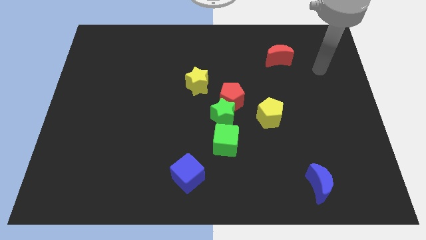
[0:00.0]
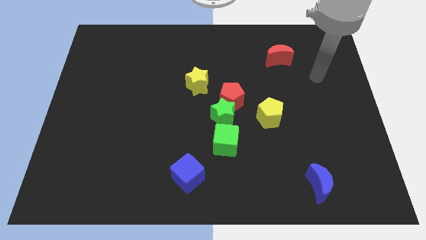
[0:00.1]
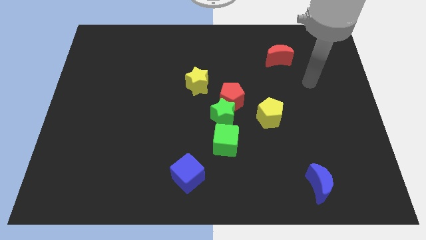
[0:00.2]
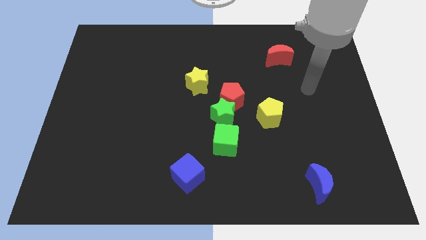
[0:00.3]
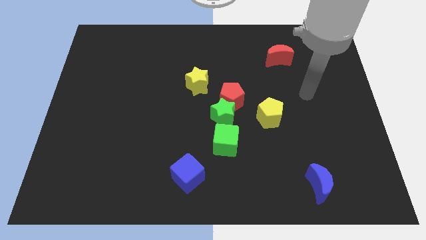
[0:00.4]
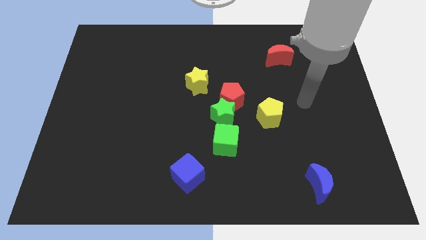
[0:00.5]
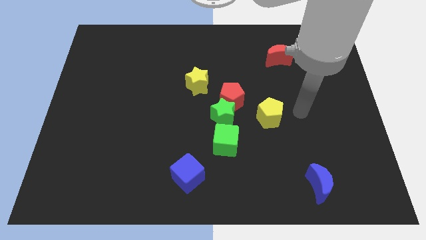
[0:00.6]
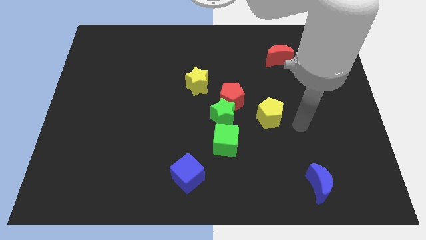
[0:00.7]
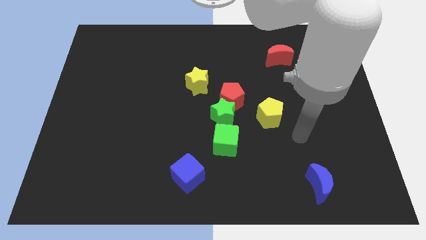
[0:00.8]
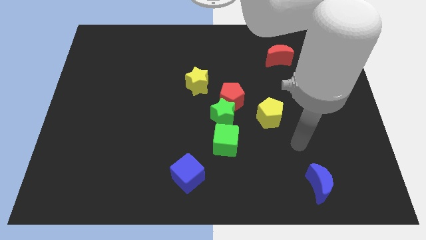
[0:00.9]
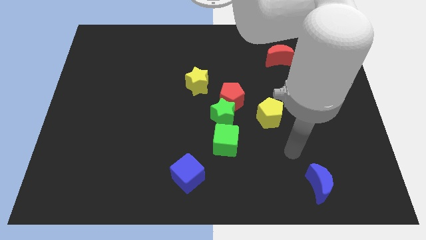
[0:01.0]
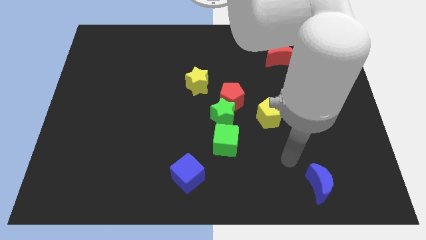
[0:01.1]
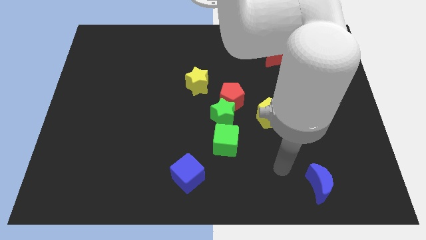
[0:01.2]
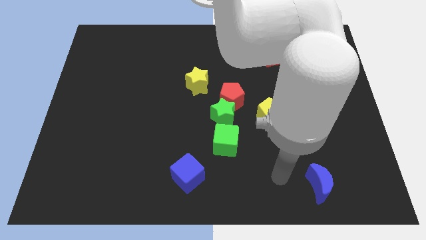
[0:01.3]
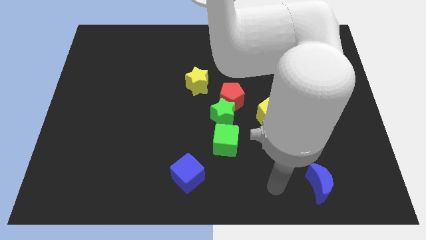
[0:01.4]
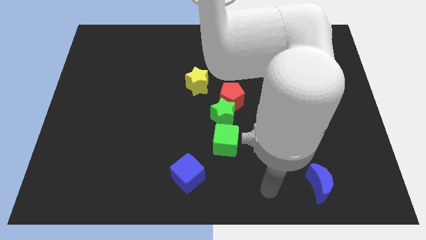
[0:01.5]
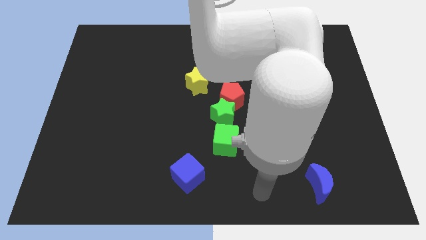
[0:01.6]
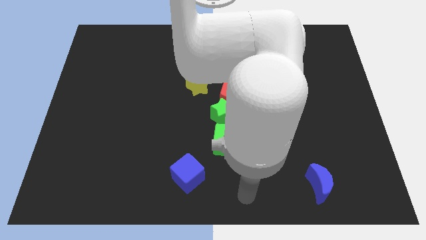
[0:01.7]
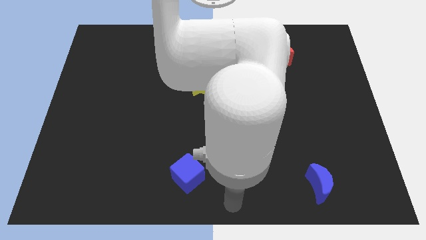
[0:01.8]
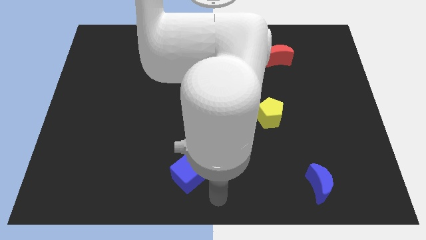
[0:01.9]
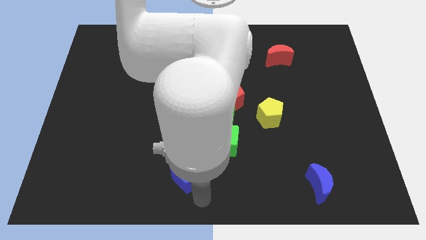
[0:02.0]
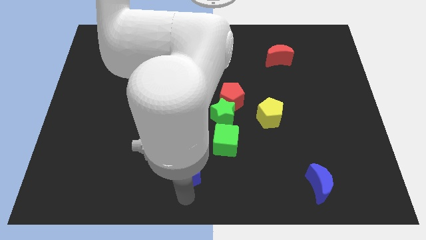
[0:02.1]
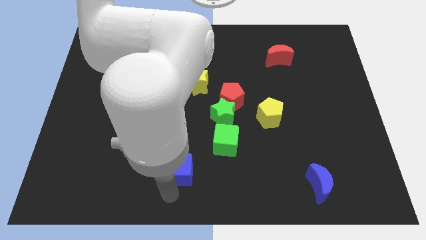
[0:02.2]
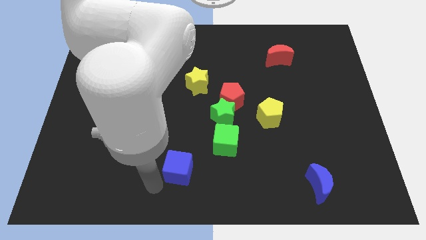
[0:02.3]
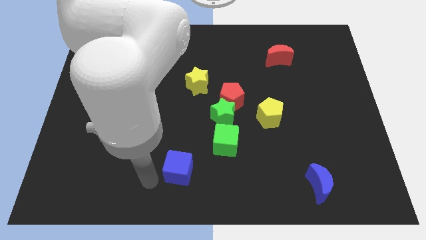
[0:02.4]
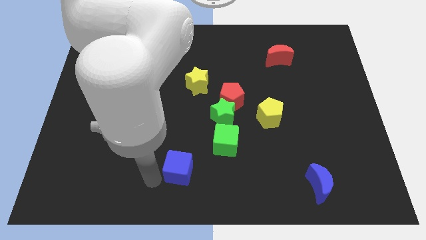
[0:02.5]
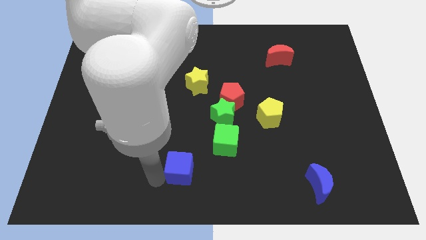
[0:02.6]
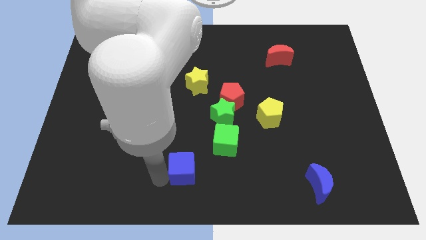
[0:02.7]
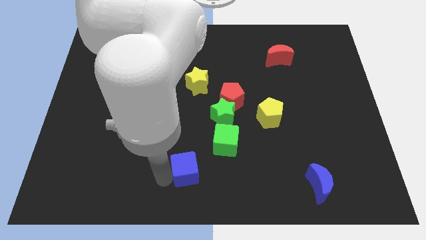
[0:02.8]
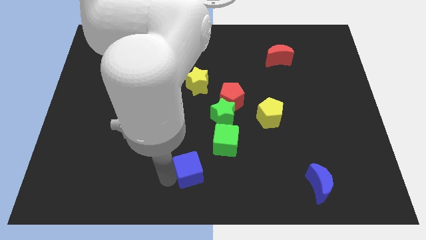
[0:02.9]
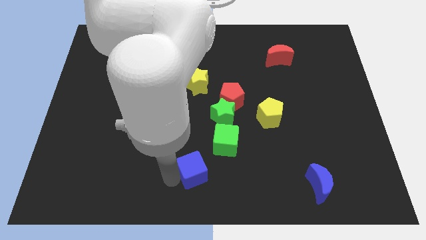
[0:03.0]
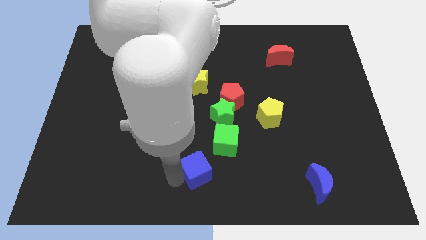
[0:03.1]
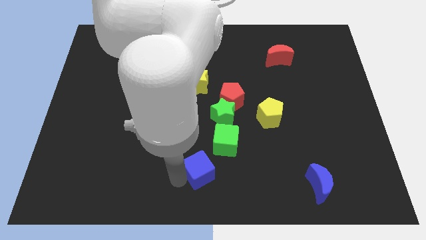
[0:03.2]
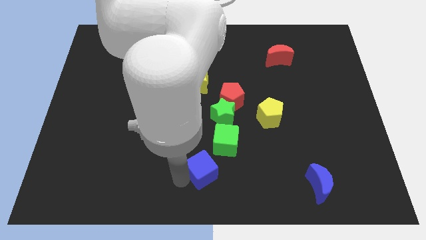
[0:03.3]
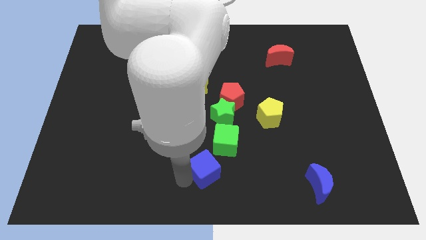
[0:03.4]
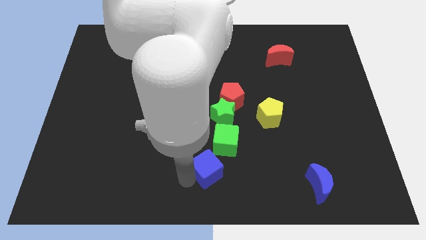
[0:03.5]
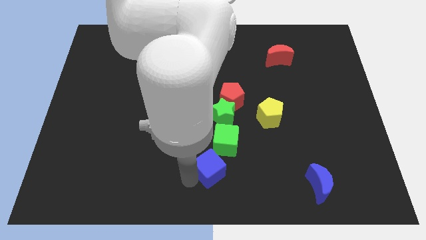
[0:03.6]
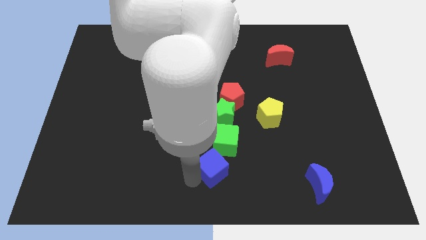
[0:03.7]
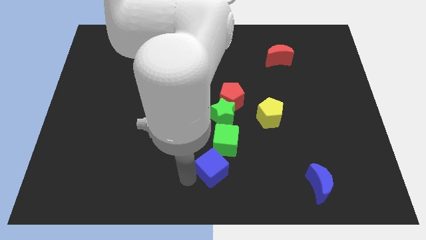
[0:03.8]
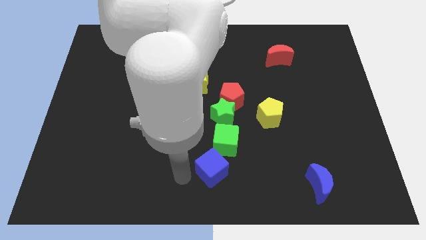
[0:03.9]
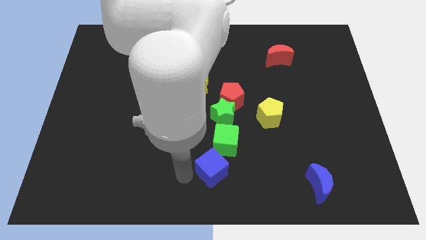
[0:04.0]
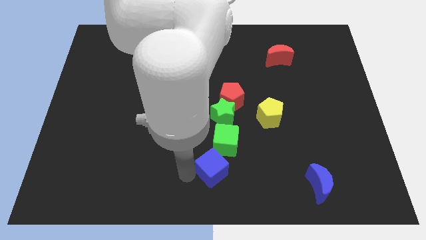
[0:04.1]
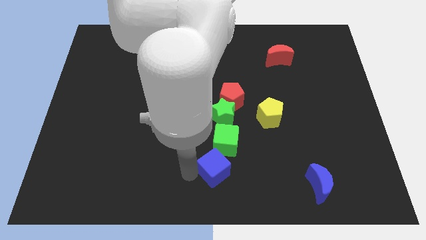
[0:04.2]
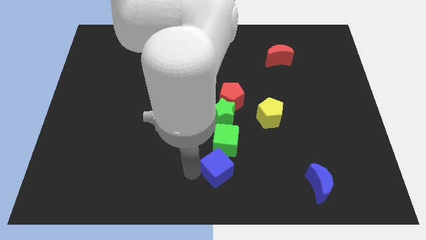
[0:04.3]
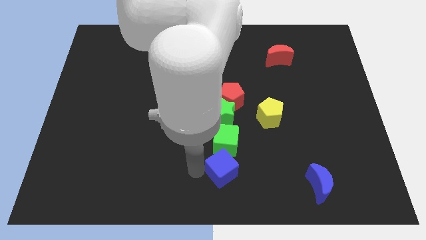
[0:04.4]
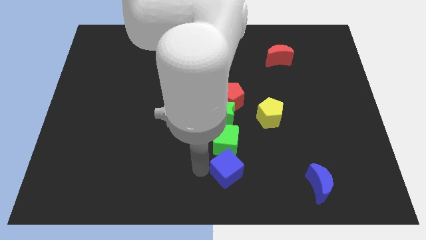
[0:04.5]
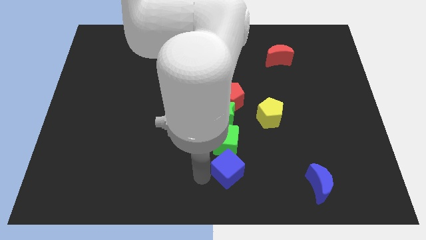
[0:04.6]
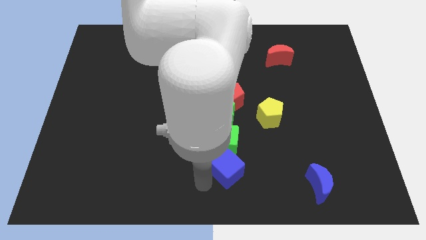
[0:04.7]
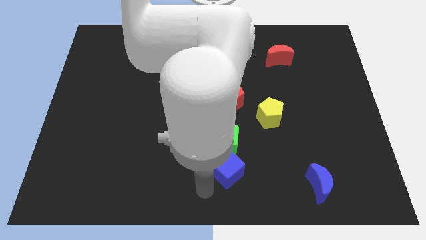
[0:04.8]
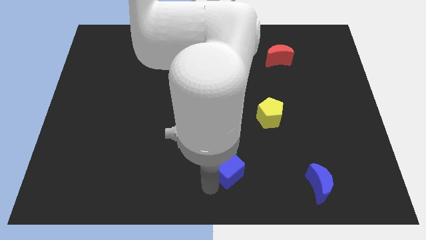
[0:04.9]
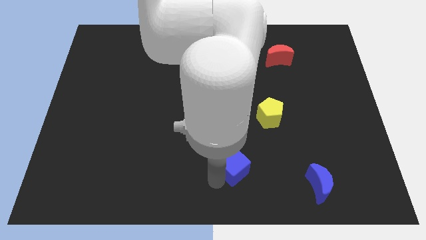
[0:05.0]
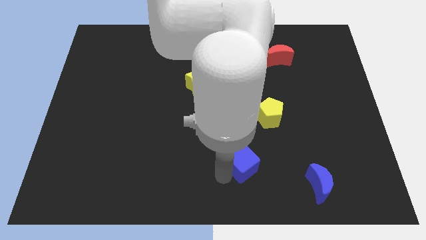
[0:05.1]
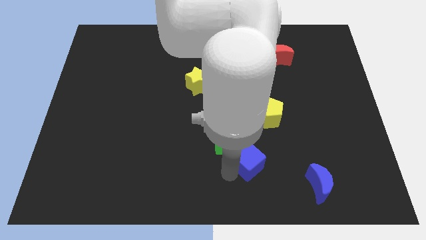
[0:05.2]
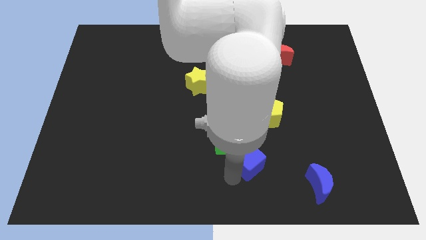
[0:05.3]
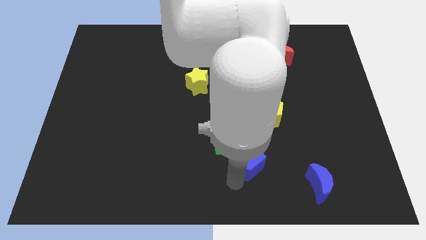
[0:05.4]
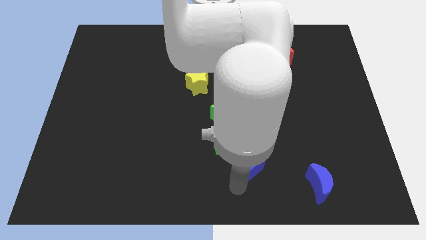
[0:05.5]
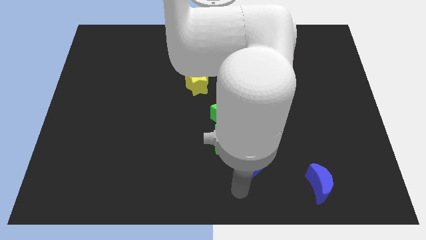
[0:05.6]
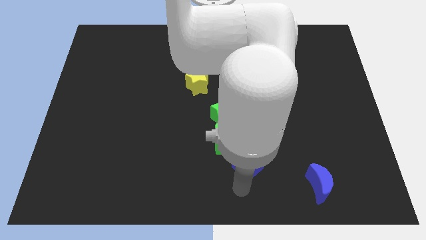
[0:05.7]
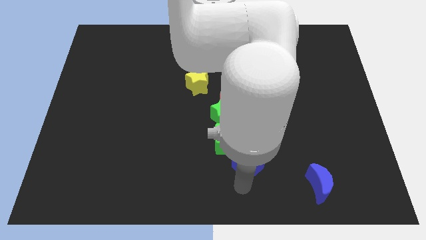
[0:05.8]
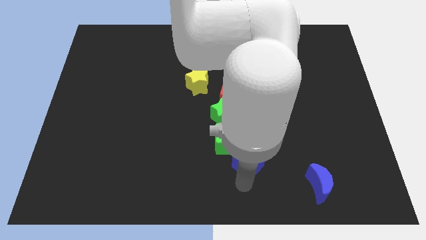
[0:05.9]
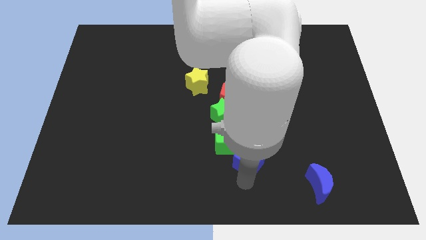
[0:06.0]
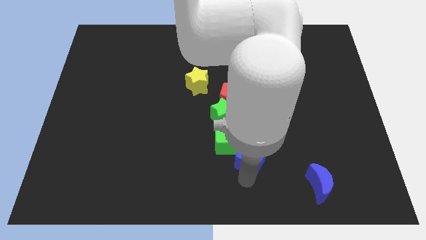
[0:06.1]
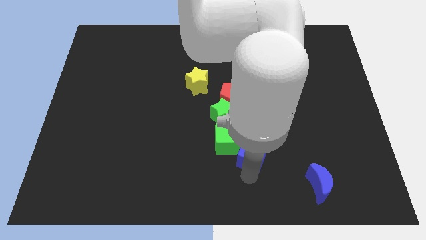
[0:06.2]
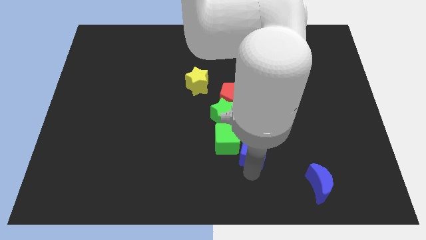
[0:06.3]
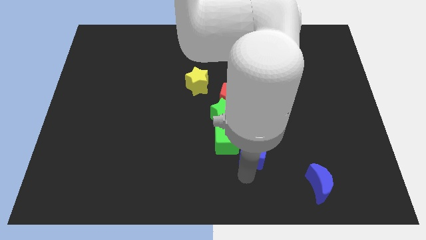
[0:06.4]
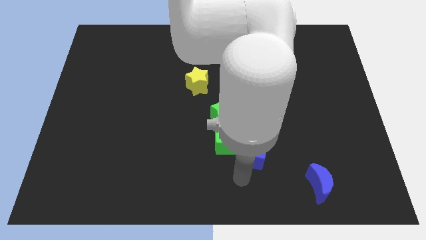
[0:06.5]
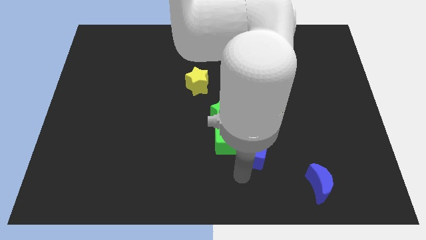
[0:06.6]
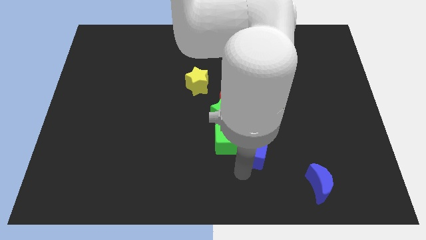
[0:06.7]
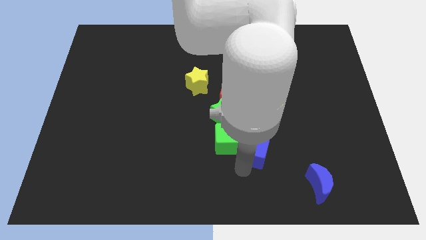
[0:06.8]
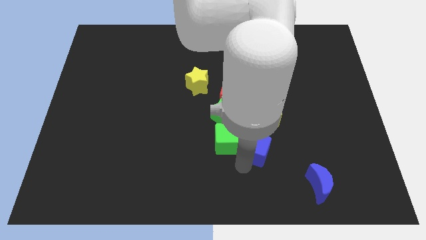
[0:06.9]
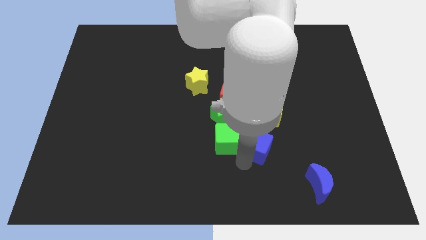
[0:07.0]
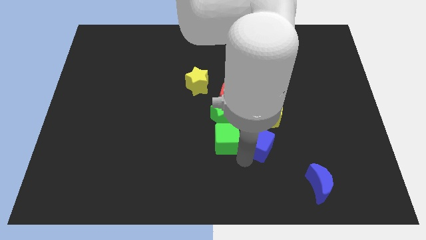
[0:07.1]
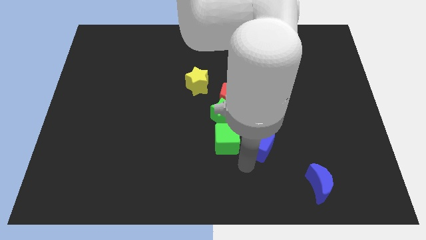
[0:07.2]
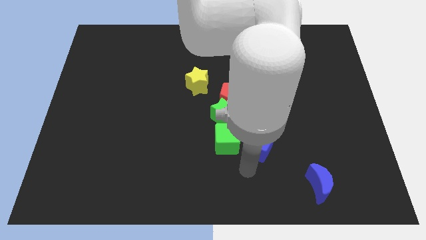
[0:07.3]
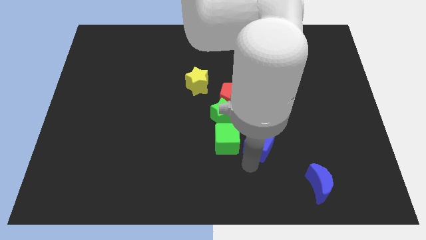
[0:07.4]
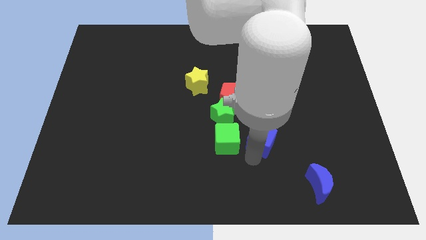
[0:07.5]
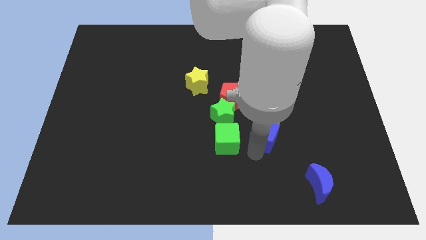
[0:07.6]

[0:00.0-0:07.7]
put the blue cube next to the yellow pentagon
